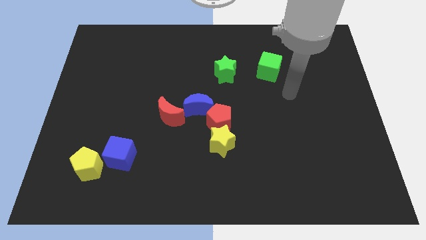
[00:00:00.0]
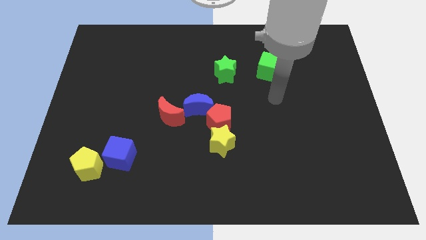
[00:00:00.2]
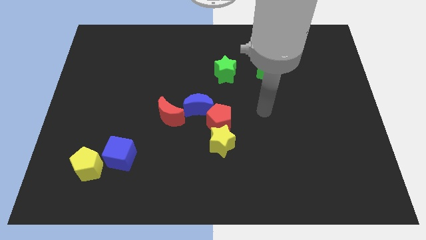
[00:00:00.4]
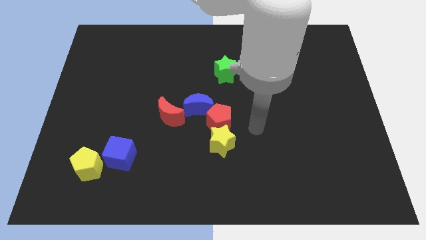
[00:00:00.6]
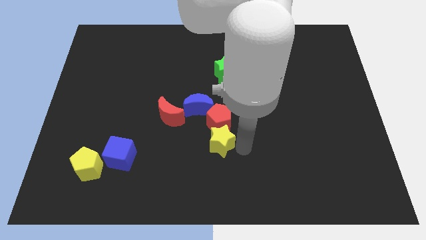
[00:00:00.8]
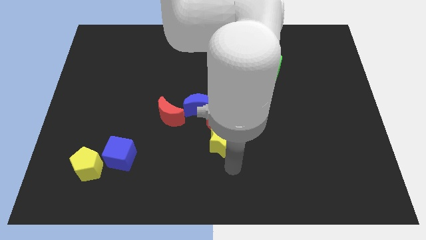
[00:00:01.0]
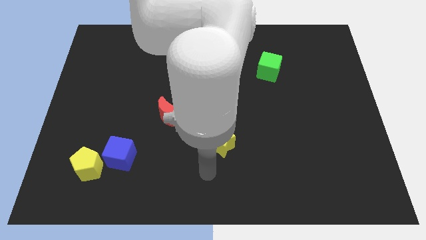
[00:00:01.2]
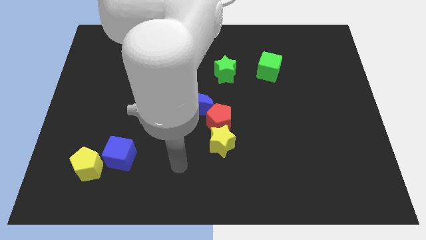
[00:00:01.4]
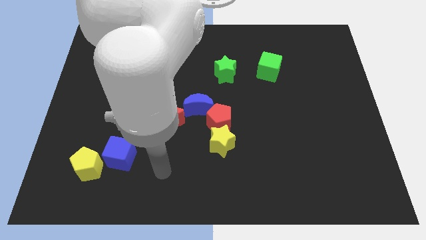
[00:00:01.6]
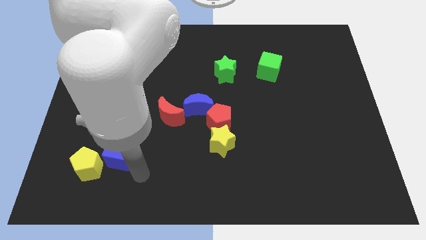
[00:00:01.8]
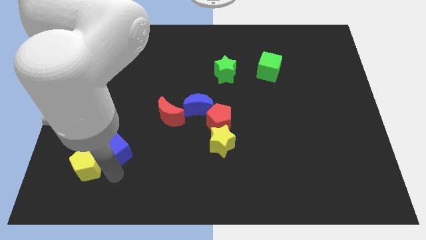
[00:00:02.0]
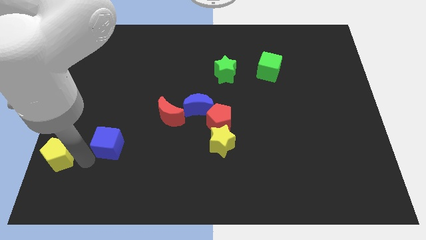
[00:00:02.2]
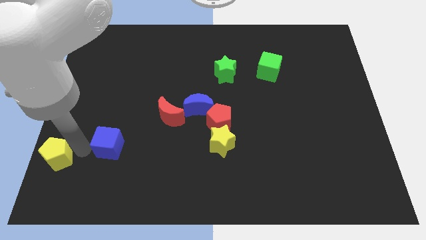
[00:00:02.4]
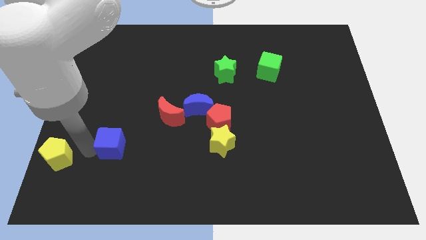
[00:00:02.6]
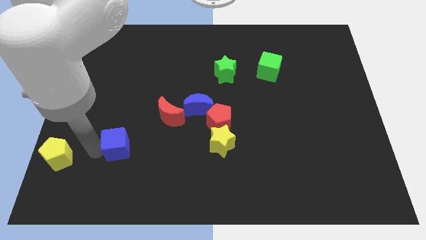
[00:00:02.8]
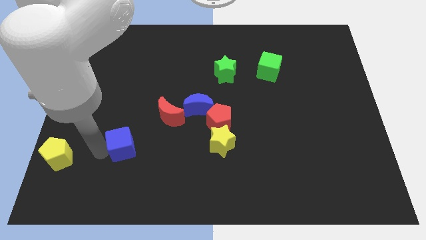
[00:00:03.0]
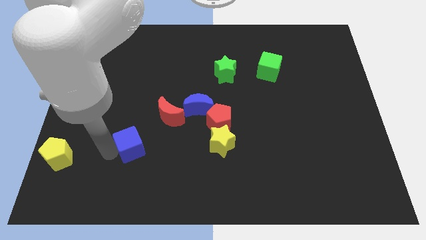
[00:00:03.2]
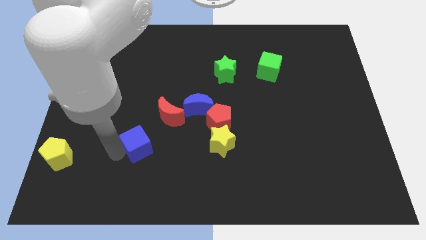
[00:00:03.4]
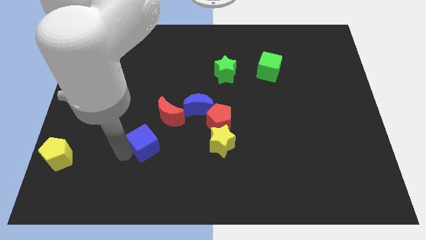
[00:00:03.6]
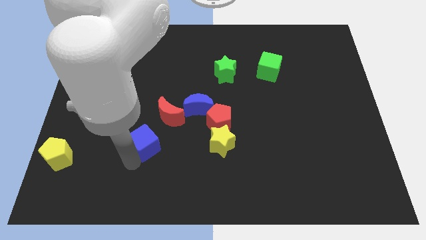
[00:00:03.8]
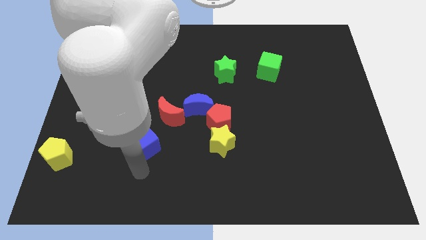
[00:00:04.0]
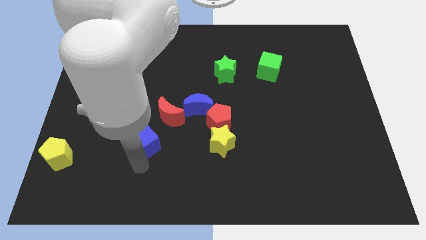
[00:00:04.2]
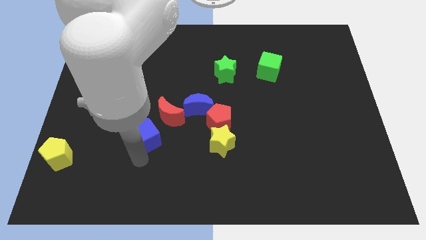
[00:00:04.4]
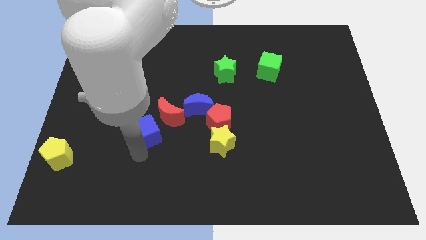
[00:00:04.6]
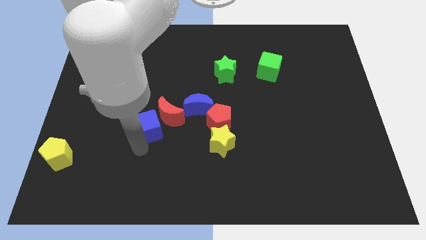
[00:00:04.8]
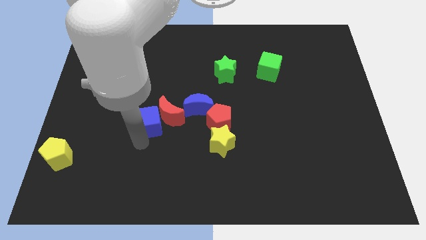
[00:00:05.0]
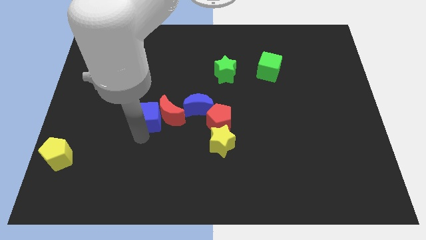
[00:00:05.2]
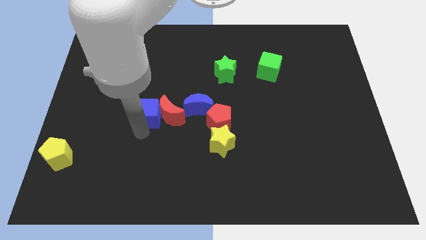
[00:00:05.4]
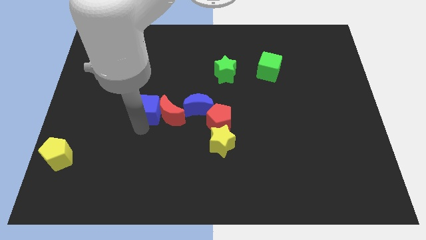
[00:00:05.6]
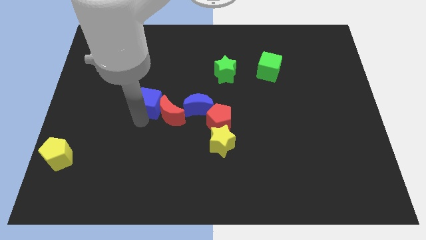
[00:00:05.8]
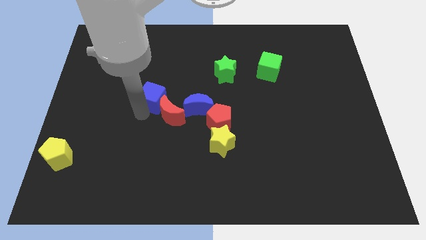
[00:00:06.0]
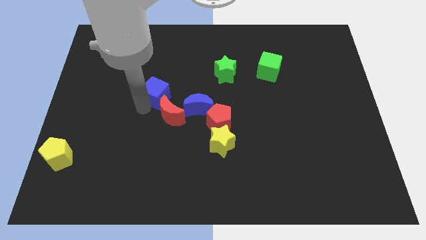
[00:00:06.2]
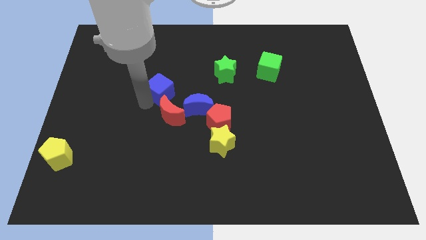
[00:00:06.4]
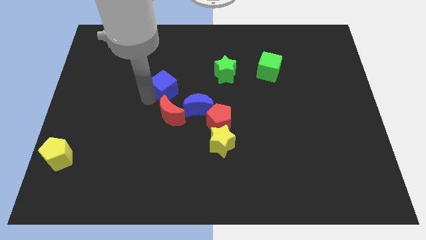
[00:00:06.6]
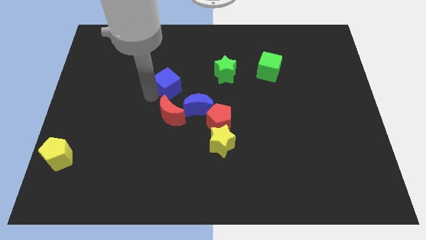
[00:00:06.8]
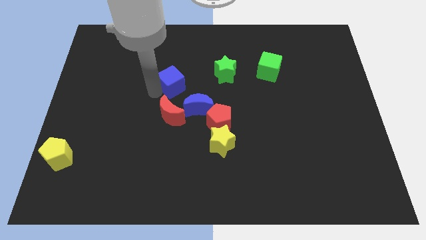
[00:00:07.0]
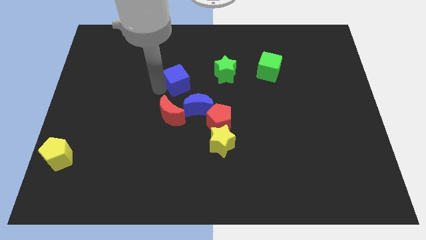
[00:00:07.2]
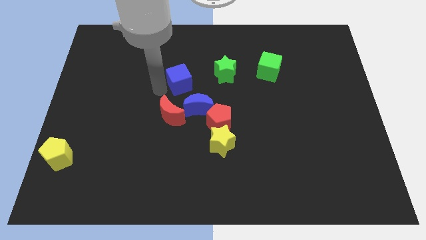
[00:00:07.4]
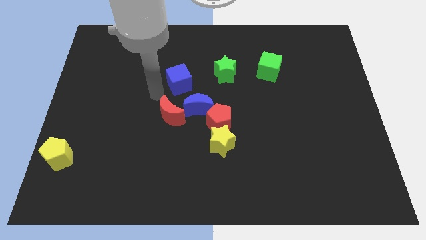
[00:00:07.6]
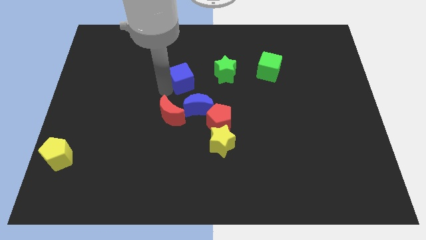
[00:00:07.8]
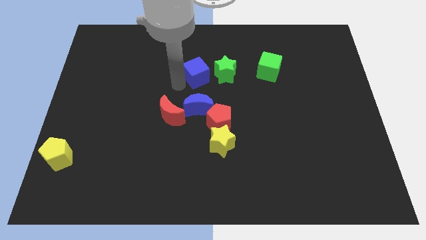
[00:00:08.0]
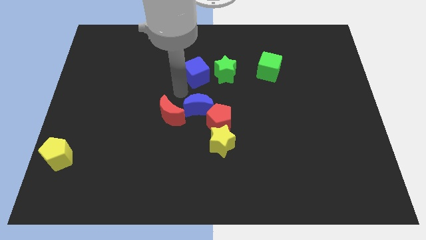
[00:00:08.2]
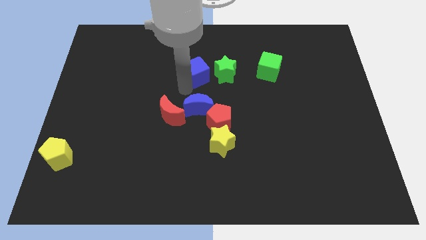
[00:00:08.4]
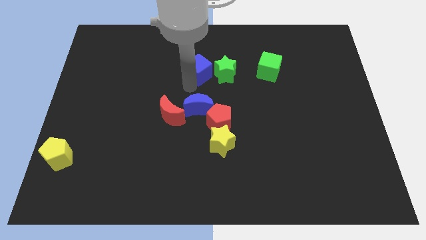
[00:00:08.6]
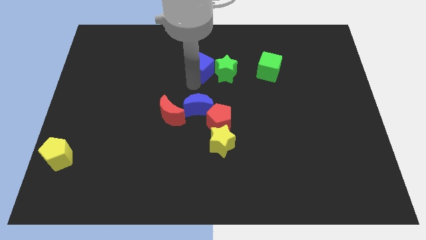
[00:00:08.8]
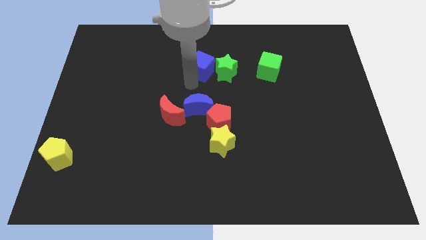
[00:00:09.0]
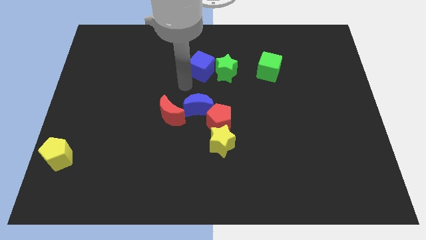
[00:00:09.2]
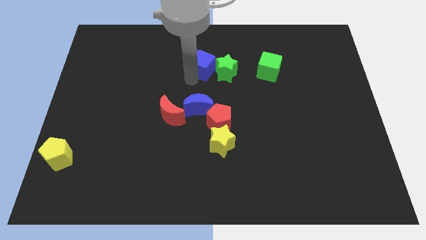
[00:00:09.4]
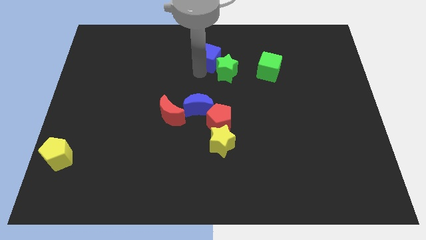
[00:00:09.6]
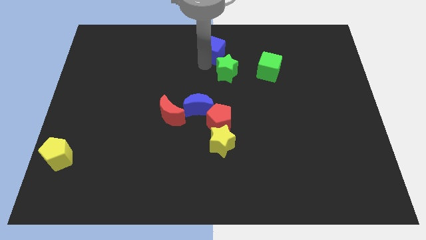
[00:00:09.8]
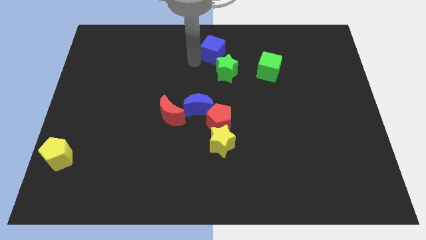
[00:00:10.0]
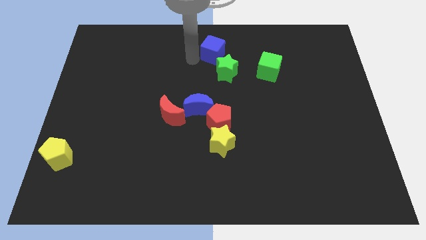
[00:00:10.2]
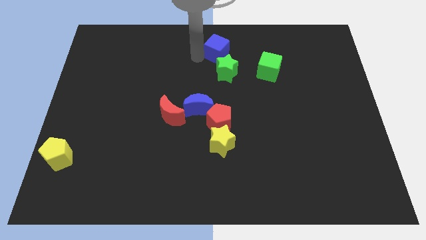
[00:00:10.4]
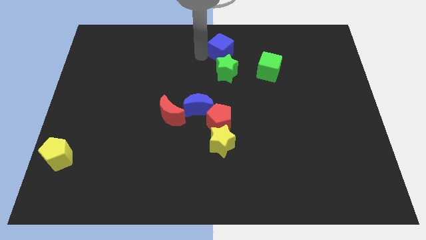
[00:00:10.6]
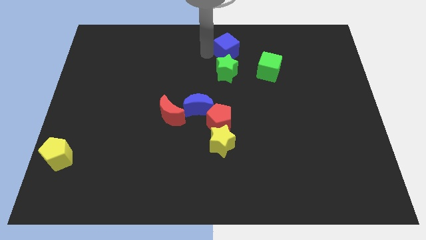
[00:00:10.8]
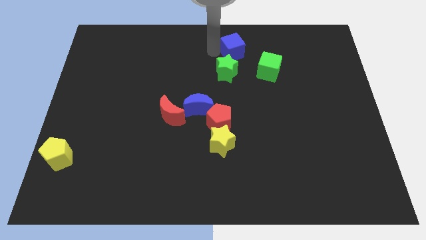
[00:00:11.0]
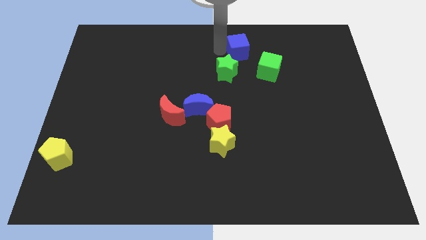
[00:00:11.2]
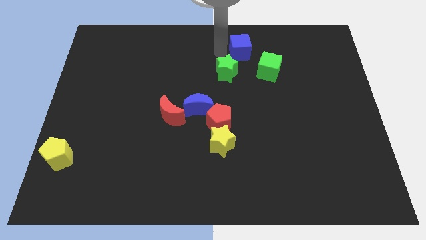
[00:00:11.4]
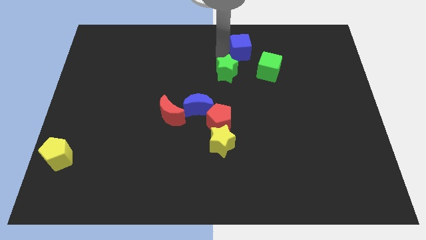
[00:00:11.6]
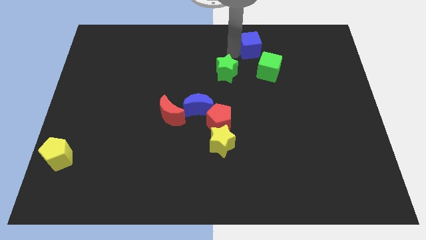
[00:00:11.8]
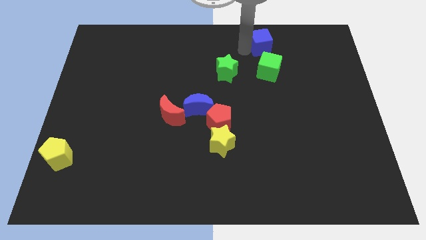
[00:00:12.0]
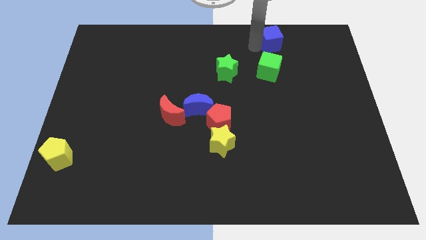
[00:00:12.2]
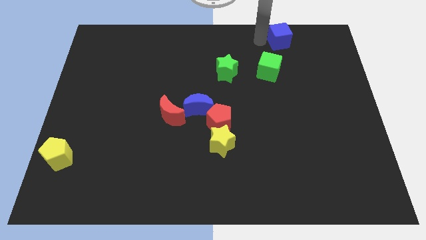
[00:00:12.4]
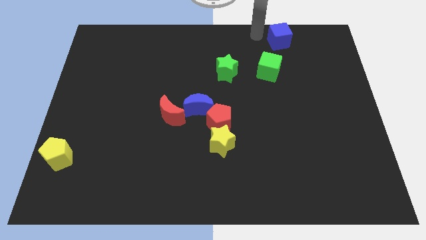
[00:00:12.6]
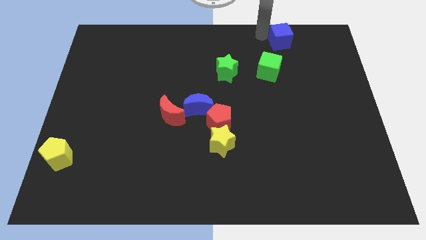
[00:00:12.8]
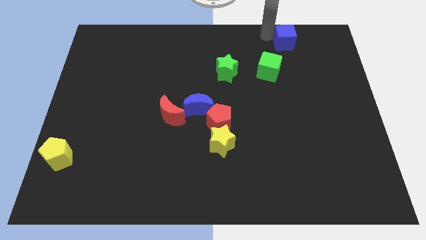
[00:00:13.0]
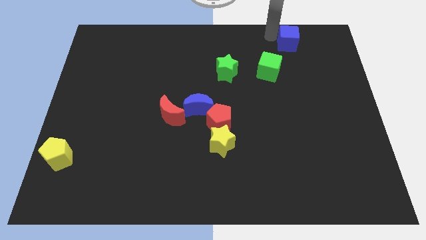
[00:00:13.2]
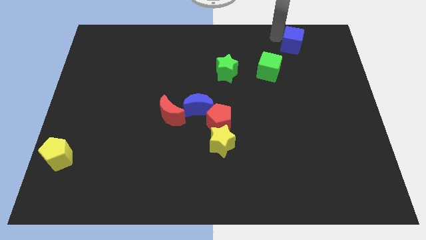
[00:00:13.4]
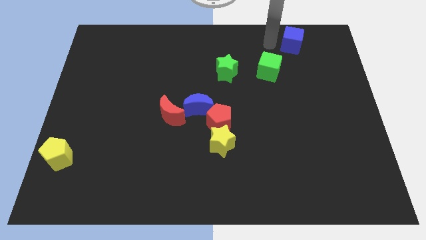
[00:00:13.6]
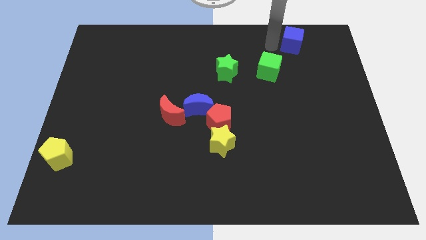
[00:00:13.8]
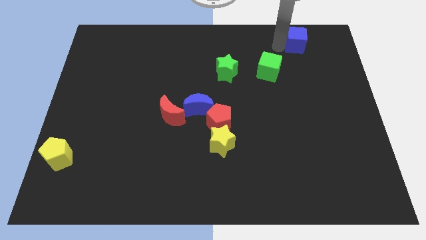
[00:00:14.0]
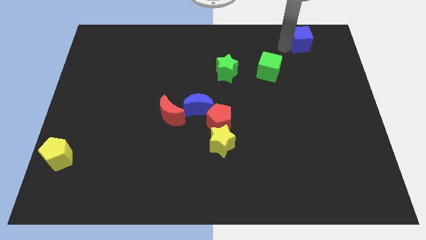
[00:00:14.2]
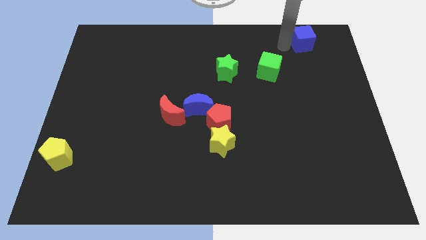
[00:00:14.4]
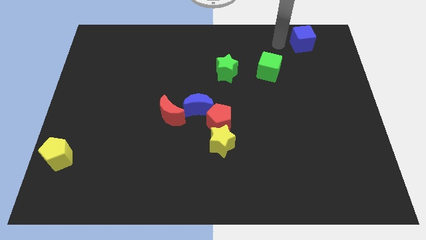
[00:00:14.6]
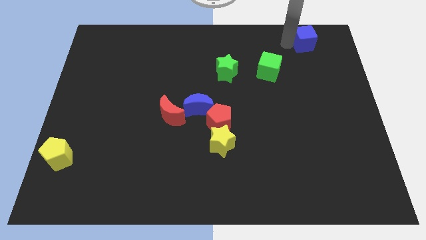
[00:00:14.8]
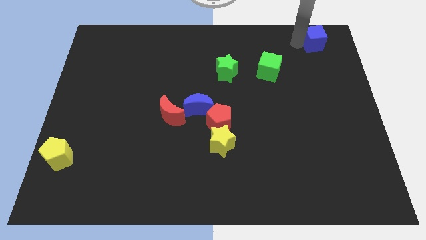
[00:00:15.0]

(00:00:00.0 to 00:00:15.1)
push the blue cube to the top right corner
